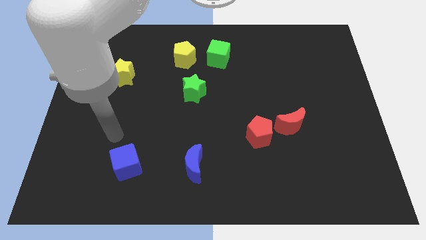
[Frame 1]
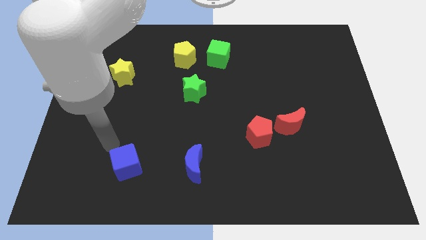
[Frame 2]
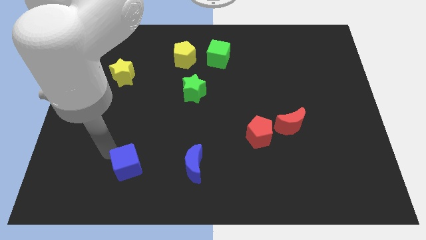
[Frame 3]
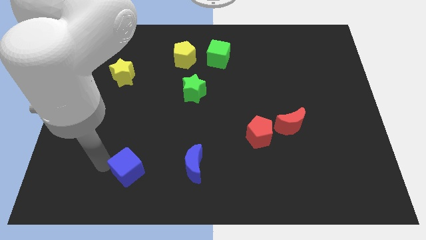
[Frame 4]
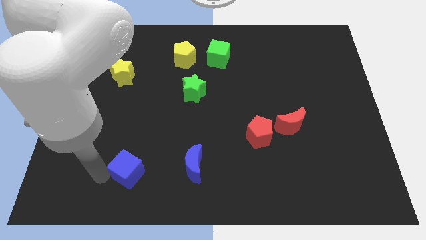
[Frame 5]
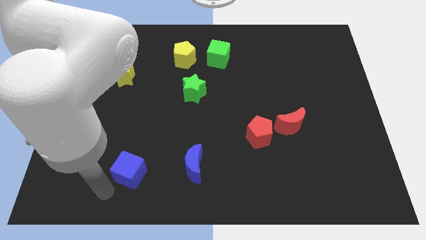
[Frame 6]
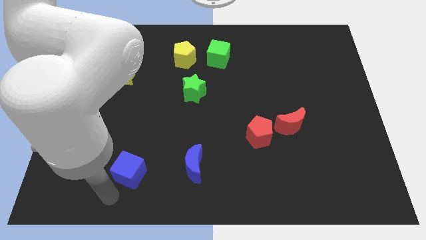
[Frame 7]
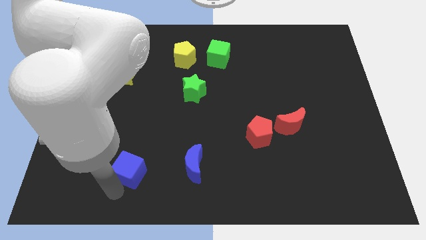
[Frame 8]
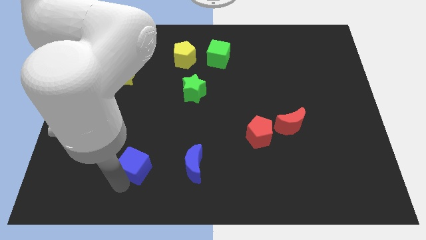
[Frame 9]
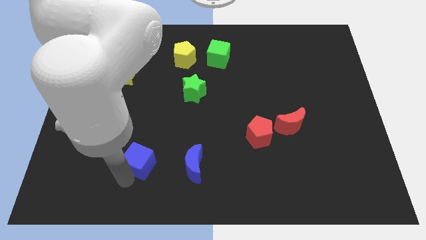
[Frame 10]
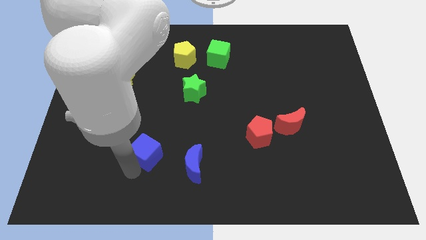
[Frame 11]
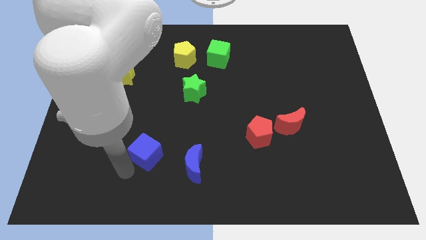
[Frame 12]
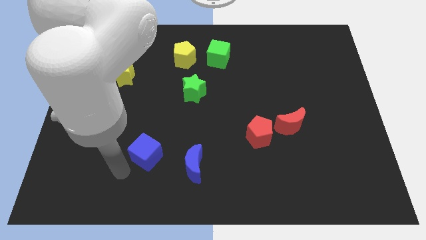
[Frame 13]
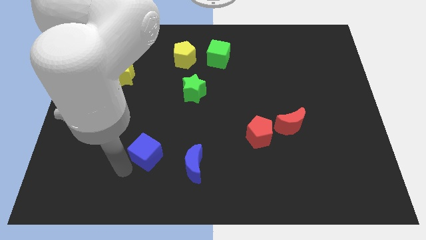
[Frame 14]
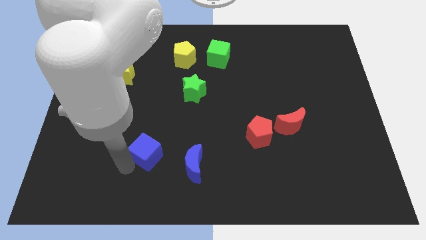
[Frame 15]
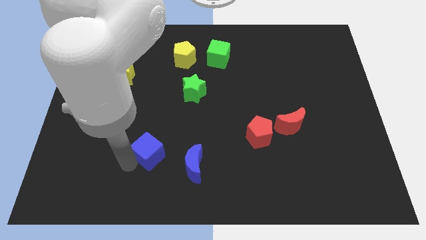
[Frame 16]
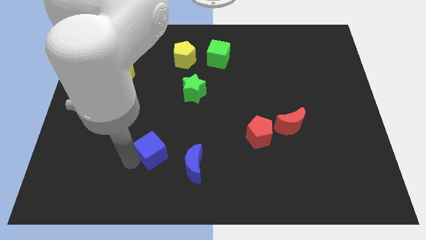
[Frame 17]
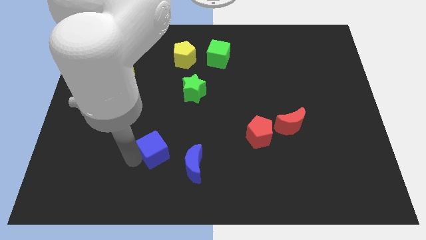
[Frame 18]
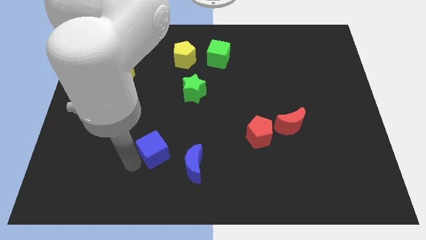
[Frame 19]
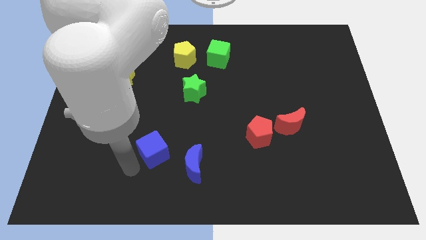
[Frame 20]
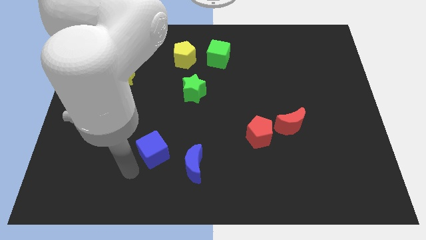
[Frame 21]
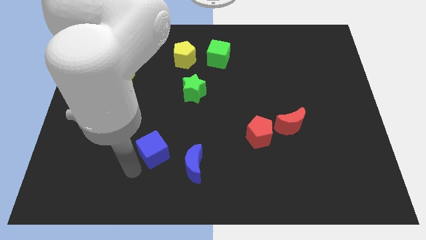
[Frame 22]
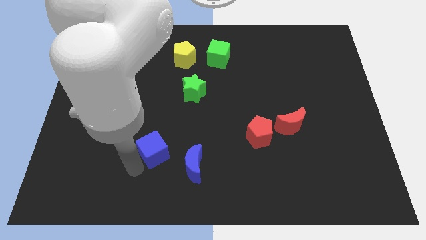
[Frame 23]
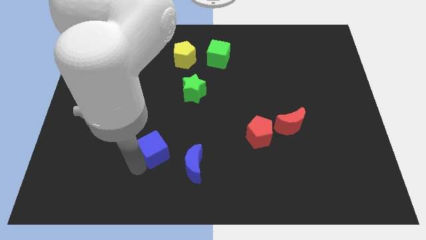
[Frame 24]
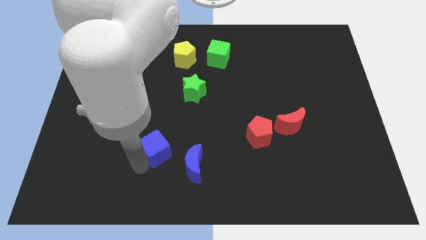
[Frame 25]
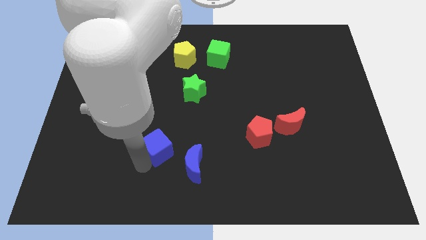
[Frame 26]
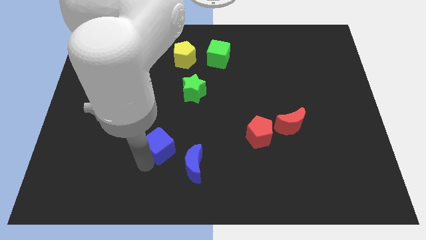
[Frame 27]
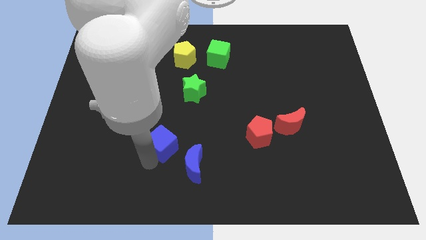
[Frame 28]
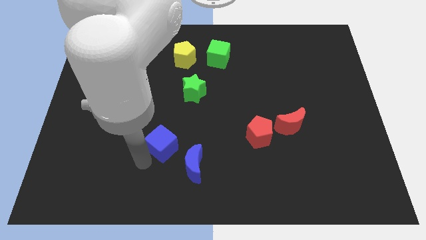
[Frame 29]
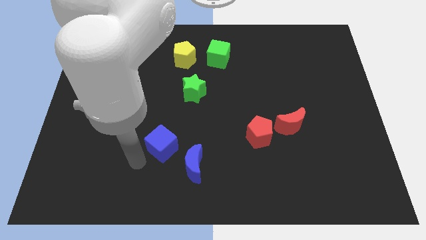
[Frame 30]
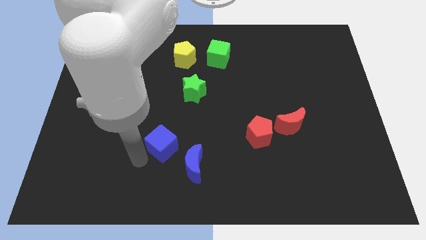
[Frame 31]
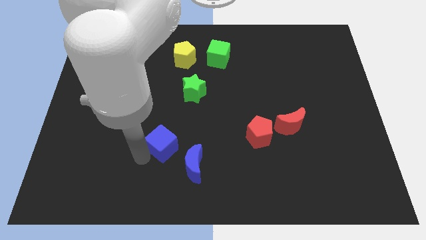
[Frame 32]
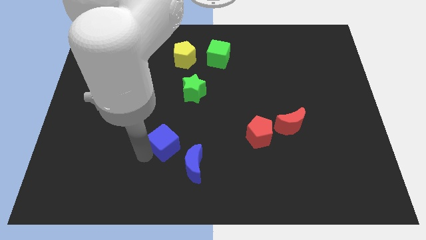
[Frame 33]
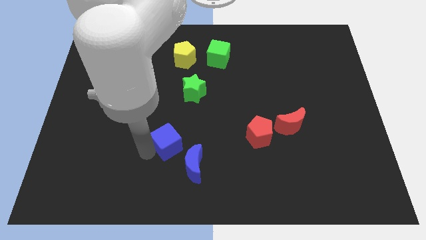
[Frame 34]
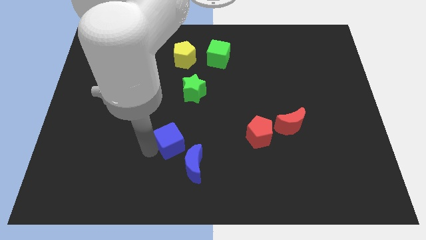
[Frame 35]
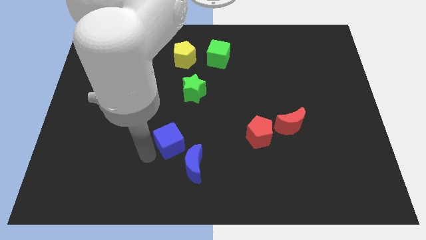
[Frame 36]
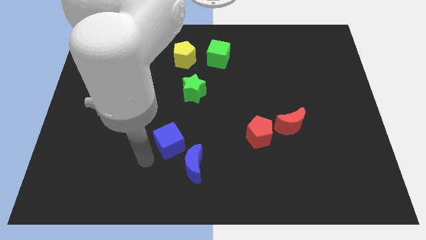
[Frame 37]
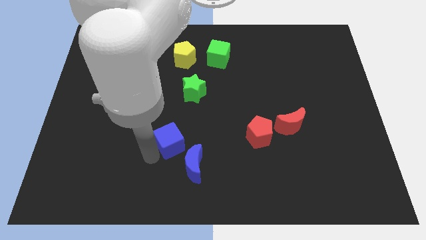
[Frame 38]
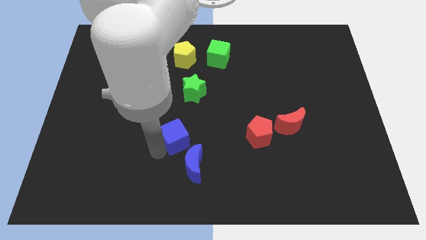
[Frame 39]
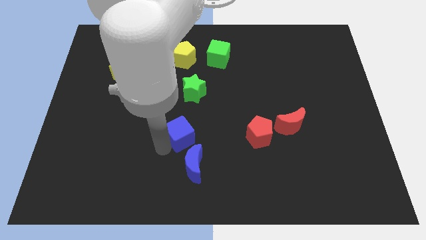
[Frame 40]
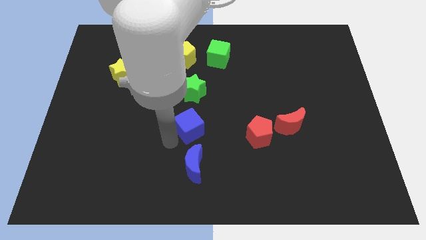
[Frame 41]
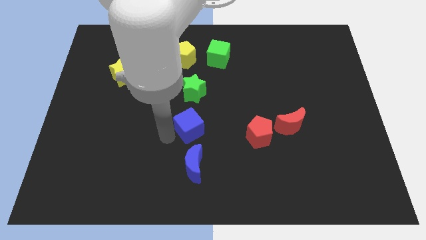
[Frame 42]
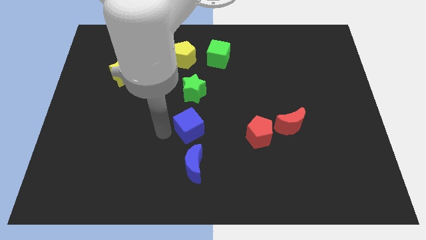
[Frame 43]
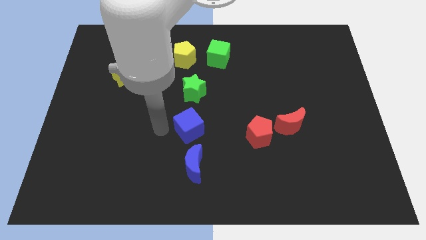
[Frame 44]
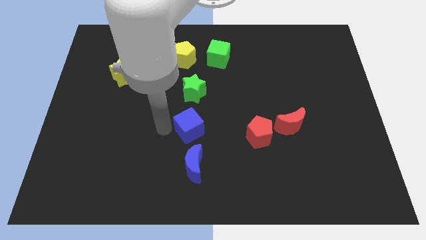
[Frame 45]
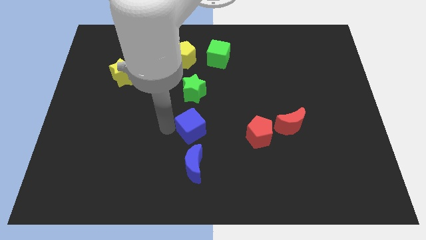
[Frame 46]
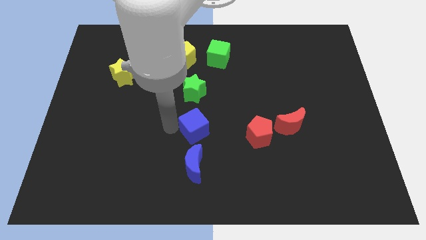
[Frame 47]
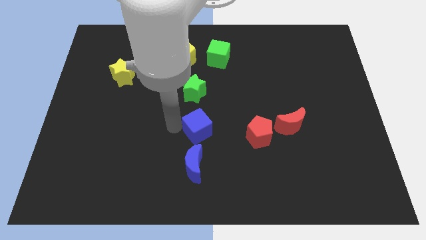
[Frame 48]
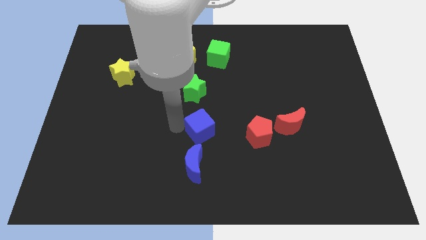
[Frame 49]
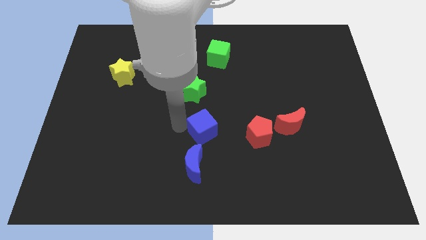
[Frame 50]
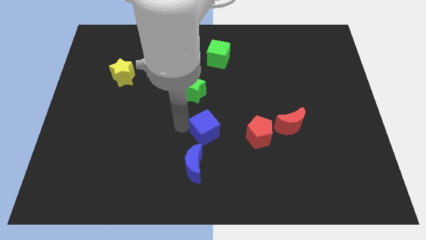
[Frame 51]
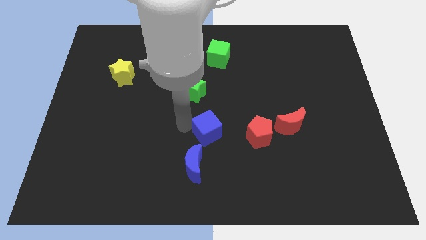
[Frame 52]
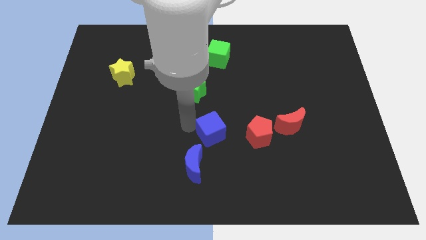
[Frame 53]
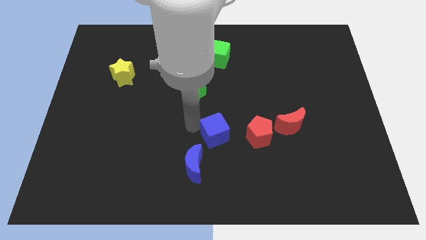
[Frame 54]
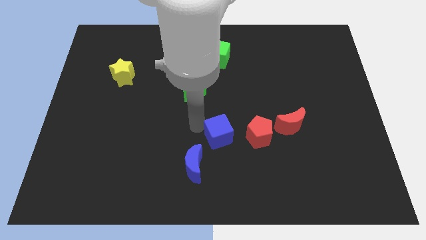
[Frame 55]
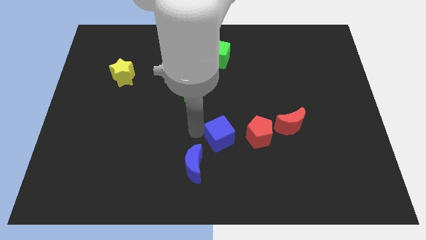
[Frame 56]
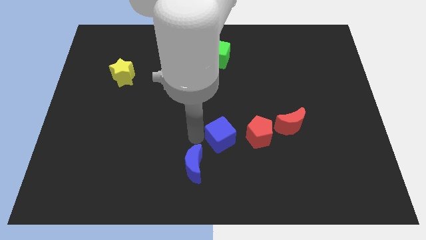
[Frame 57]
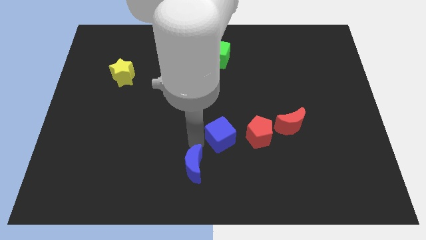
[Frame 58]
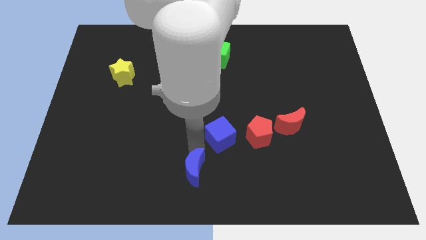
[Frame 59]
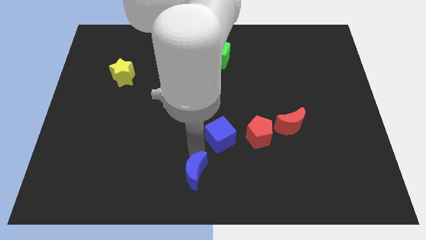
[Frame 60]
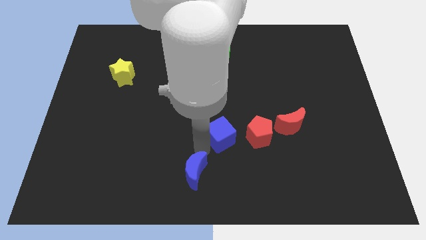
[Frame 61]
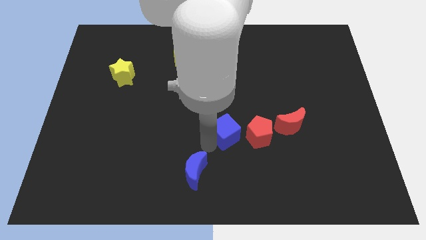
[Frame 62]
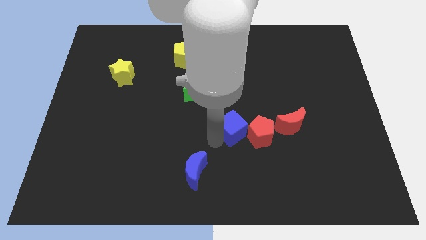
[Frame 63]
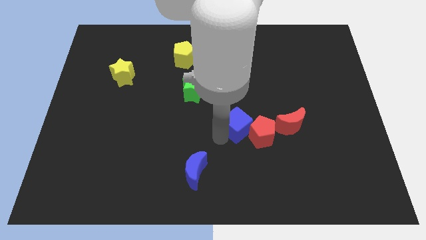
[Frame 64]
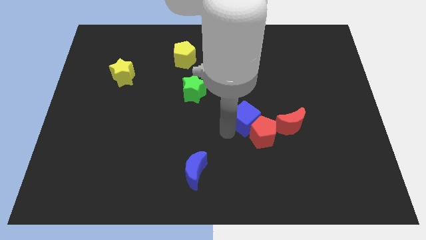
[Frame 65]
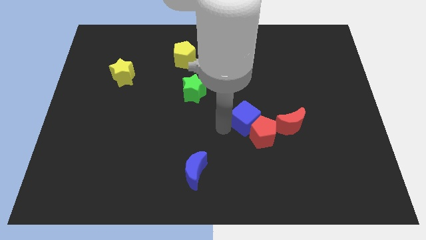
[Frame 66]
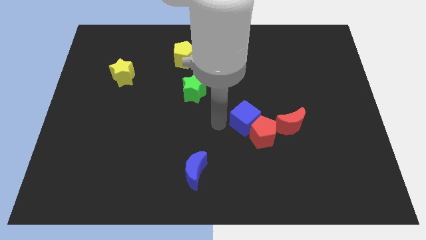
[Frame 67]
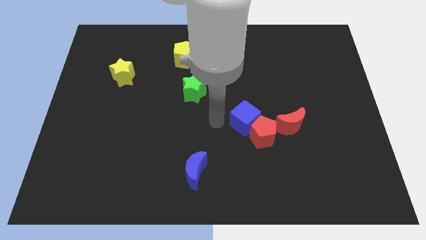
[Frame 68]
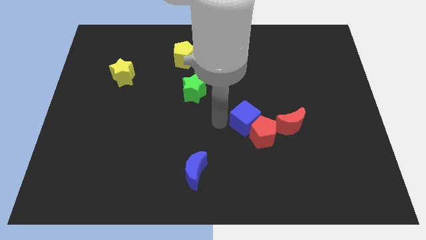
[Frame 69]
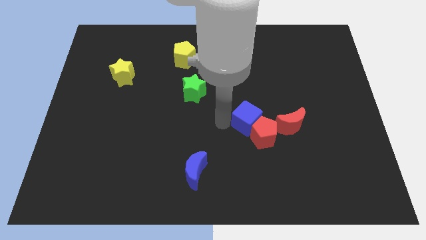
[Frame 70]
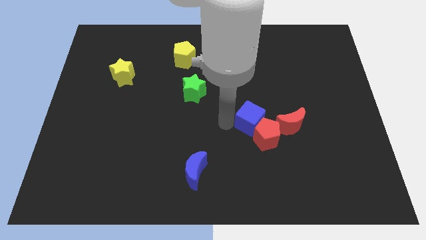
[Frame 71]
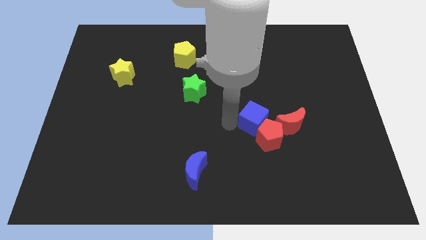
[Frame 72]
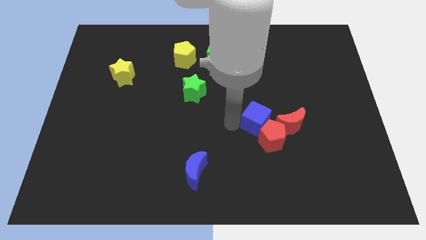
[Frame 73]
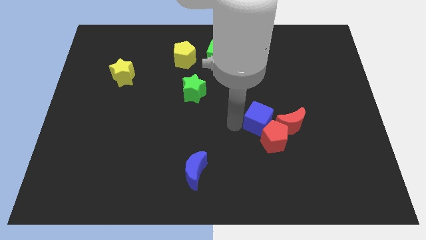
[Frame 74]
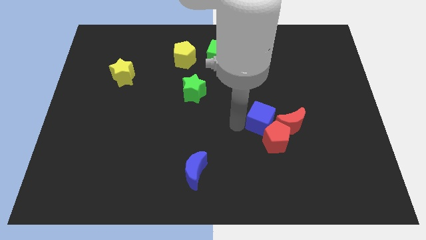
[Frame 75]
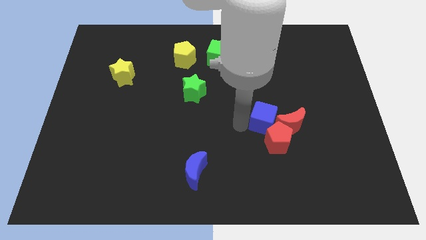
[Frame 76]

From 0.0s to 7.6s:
push the blue cube towards the red moon
